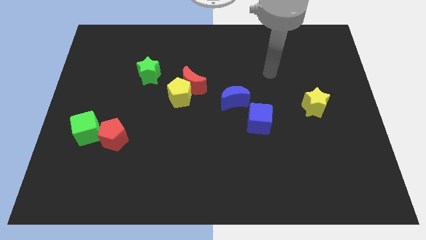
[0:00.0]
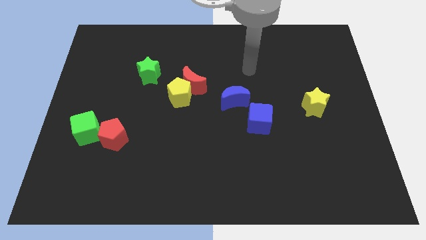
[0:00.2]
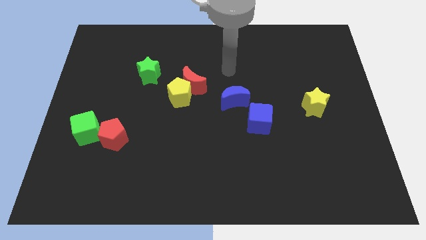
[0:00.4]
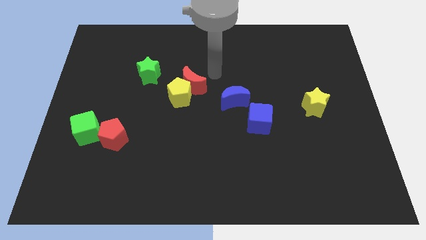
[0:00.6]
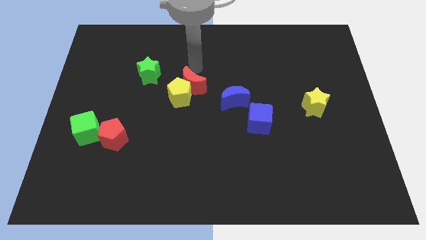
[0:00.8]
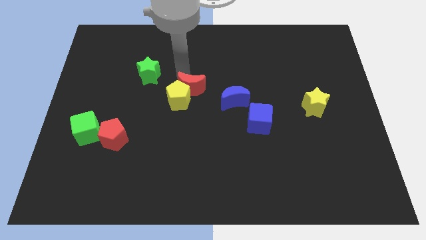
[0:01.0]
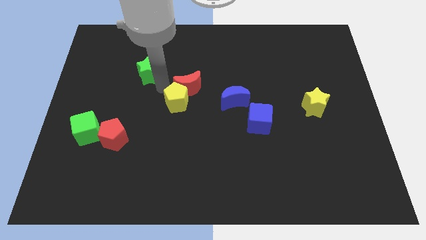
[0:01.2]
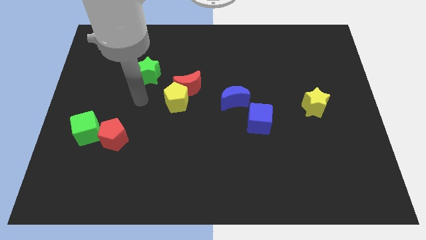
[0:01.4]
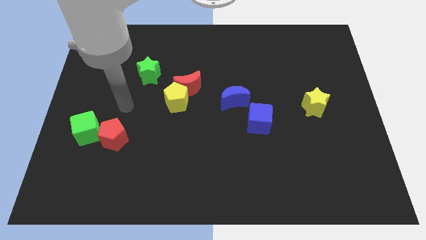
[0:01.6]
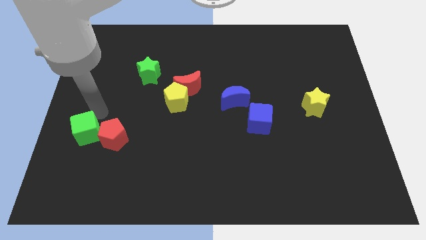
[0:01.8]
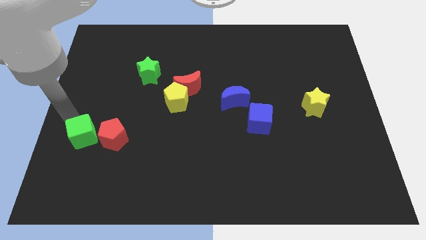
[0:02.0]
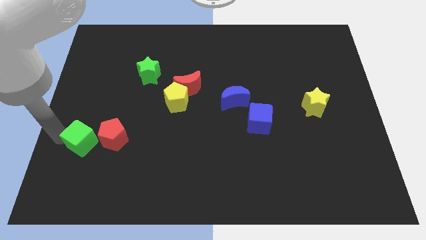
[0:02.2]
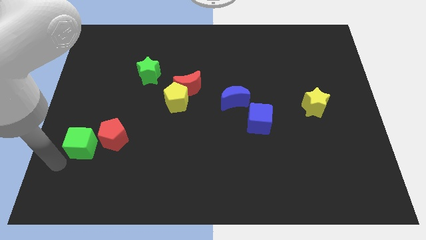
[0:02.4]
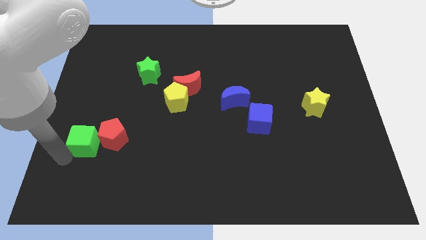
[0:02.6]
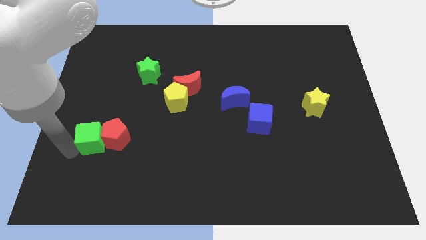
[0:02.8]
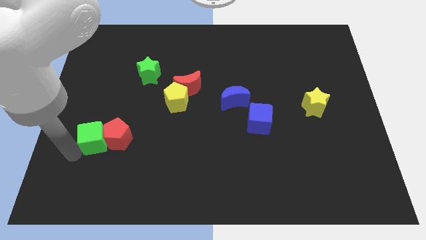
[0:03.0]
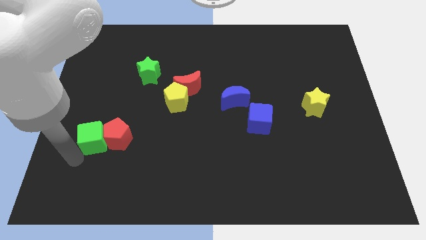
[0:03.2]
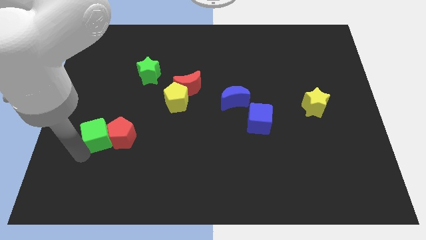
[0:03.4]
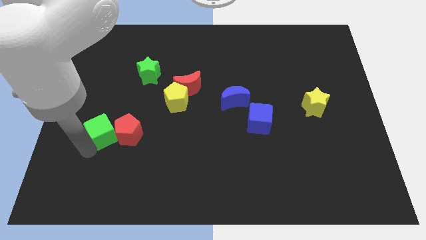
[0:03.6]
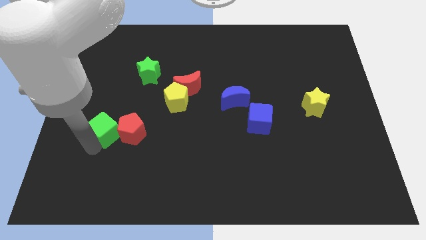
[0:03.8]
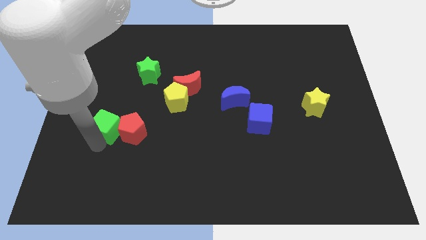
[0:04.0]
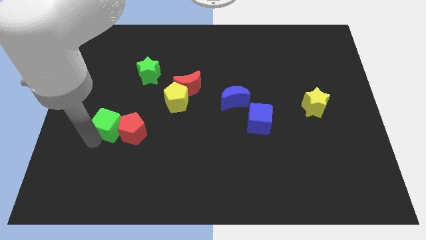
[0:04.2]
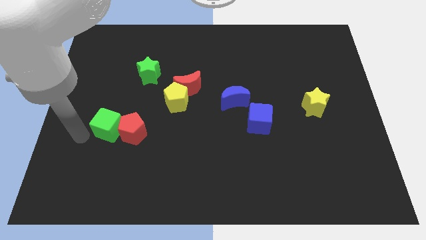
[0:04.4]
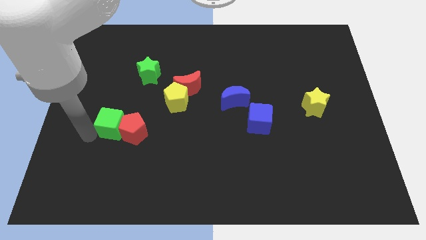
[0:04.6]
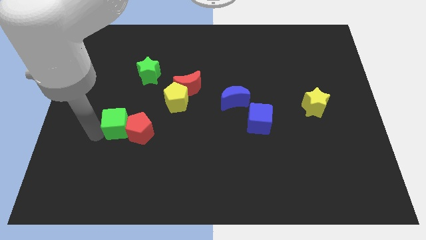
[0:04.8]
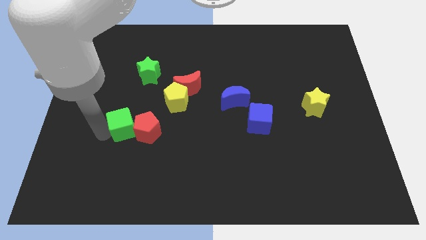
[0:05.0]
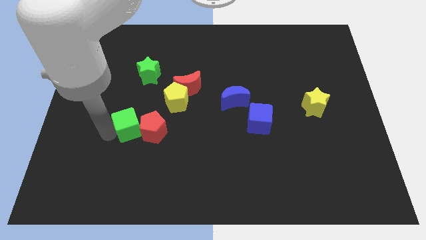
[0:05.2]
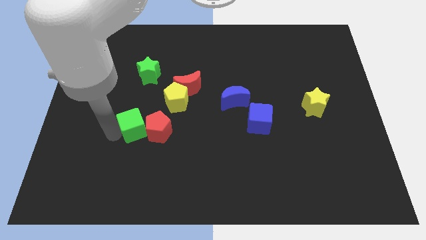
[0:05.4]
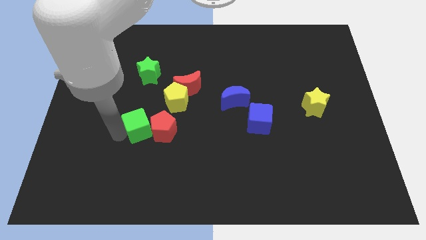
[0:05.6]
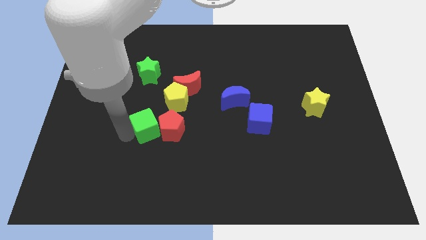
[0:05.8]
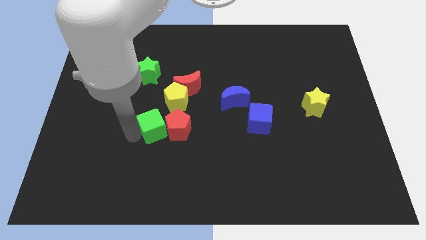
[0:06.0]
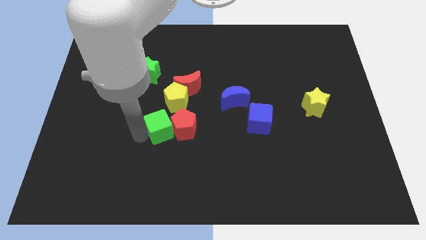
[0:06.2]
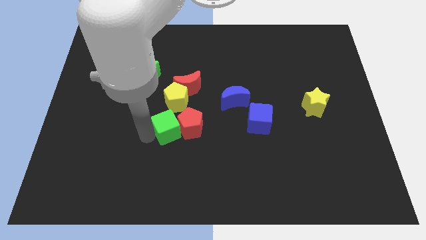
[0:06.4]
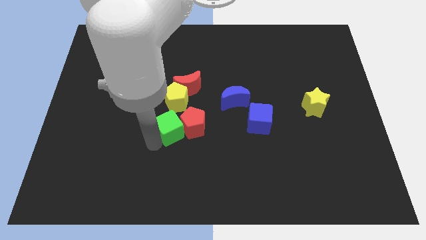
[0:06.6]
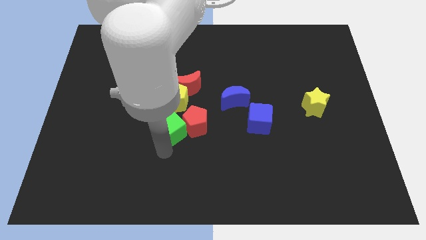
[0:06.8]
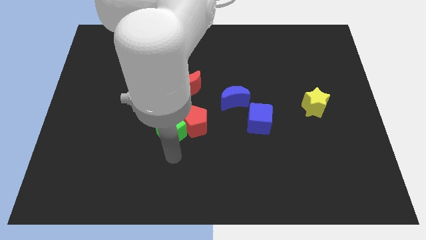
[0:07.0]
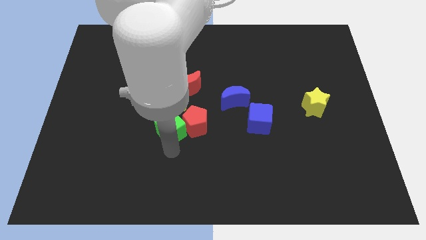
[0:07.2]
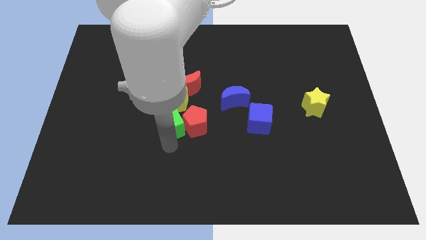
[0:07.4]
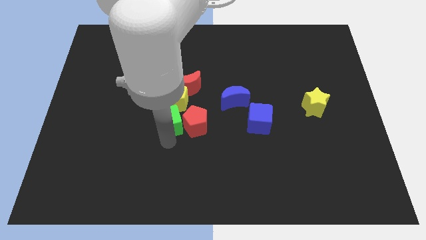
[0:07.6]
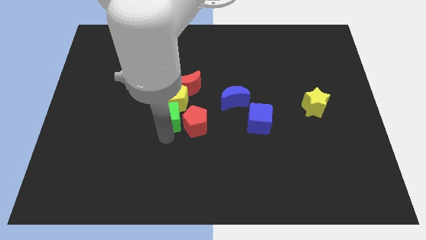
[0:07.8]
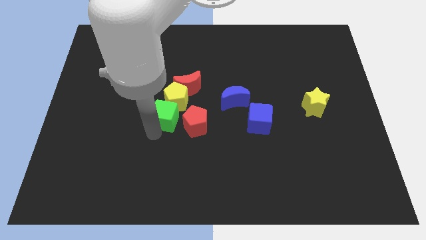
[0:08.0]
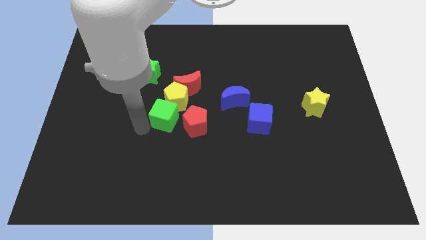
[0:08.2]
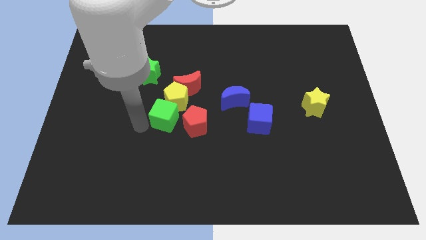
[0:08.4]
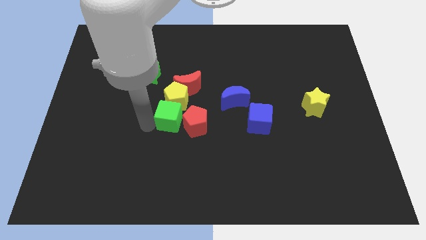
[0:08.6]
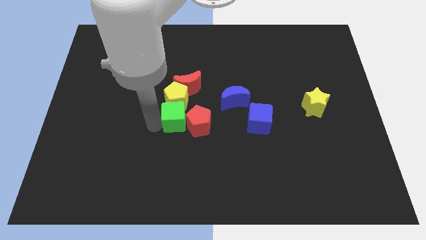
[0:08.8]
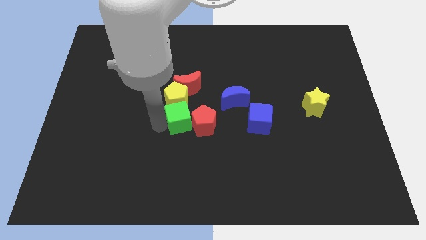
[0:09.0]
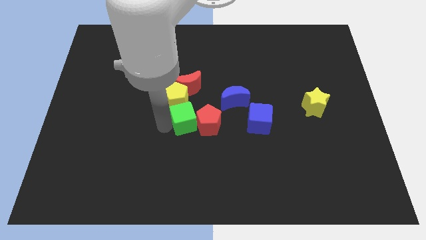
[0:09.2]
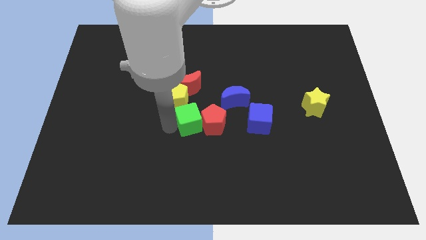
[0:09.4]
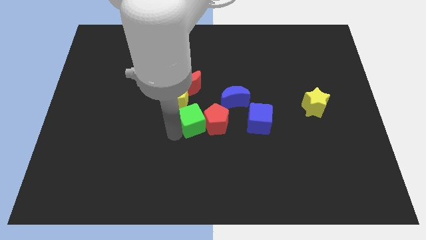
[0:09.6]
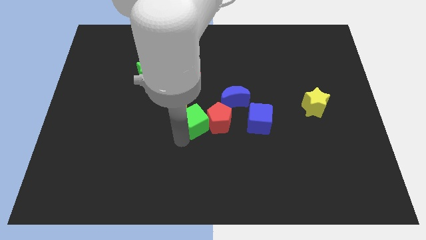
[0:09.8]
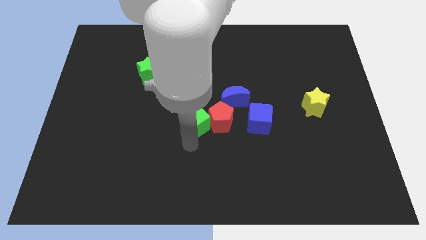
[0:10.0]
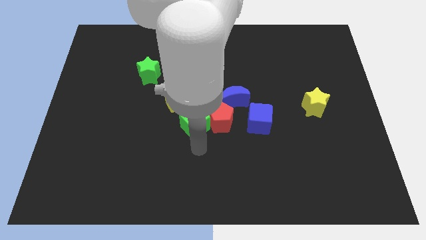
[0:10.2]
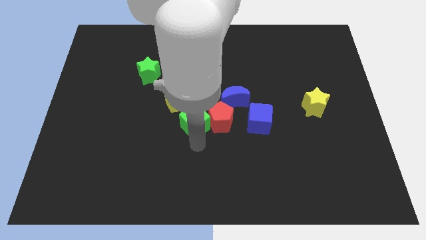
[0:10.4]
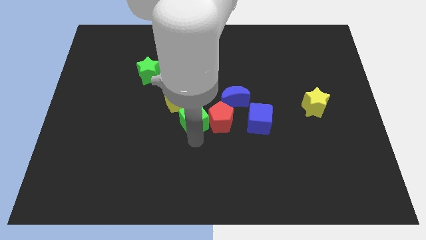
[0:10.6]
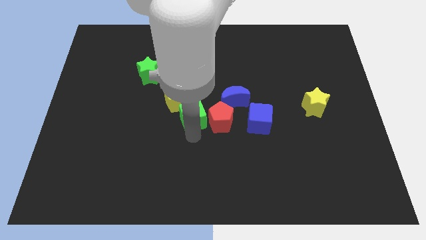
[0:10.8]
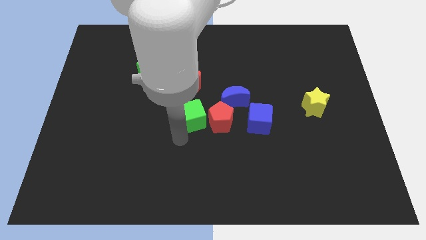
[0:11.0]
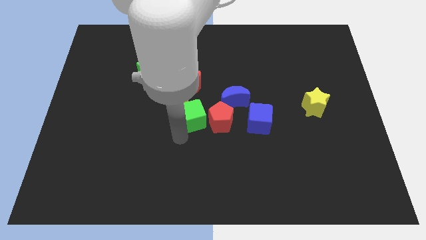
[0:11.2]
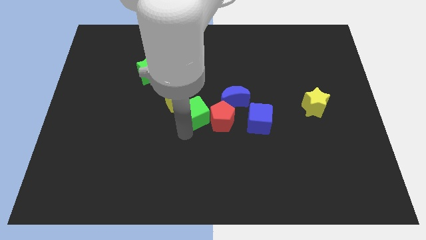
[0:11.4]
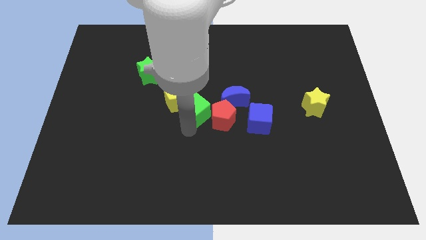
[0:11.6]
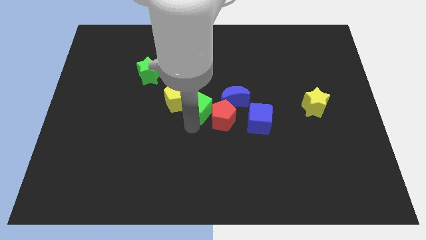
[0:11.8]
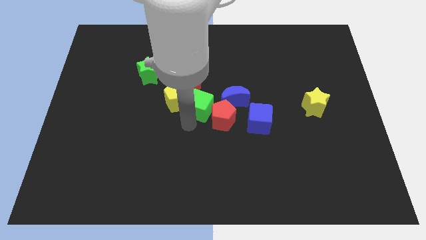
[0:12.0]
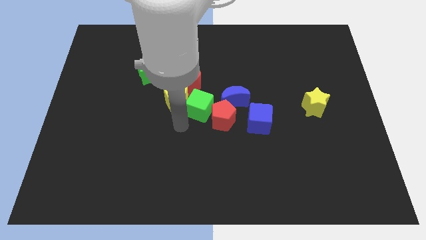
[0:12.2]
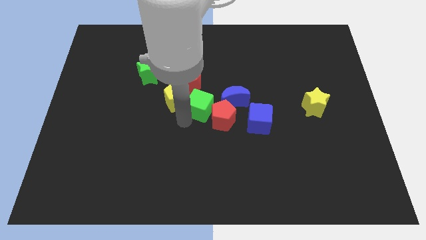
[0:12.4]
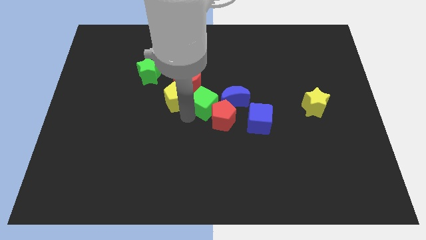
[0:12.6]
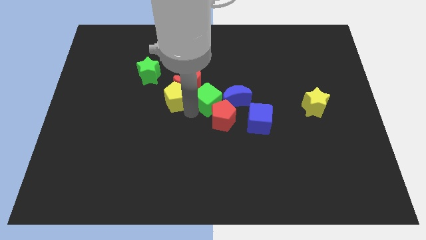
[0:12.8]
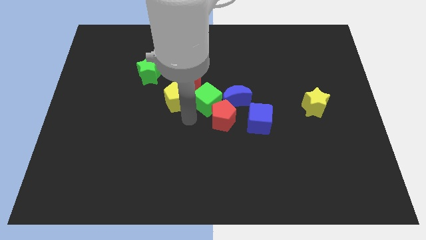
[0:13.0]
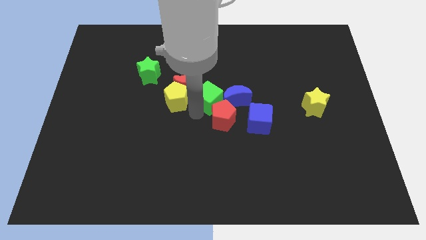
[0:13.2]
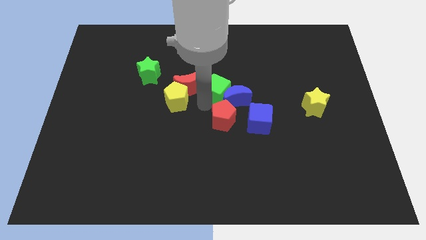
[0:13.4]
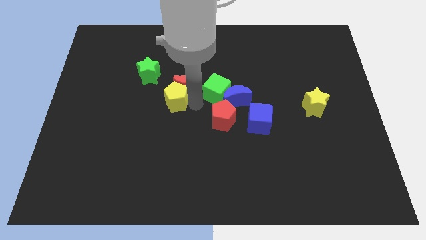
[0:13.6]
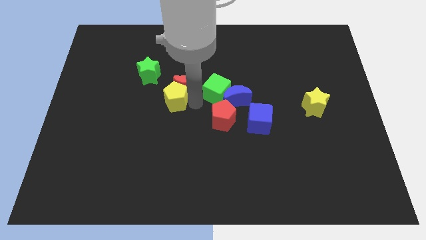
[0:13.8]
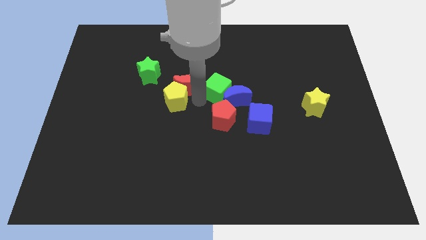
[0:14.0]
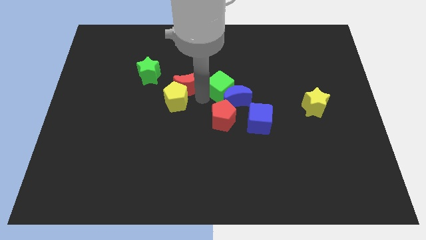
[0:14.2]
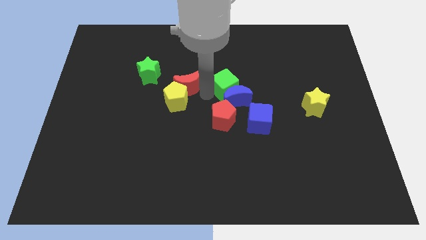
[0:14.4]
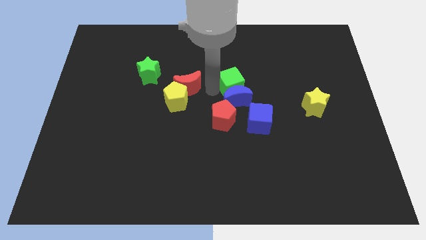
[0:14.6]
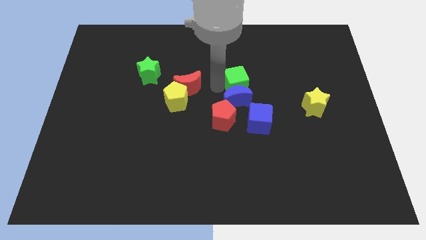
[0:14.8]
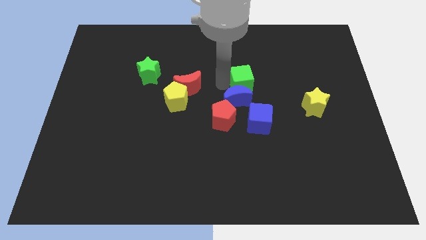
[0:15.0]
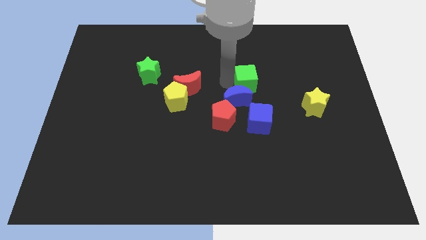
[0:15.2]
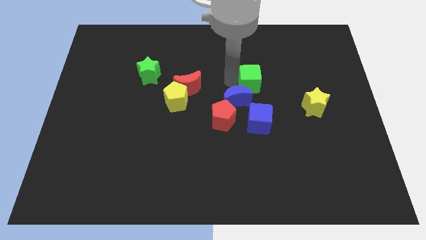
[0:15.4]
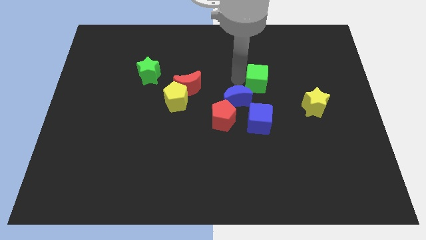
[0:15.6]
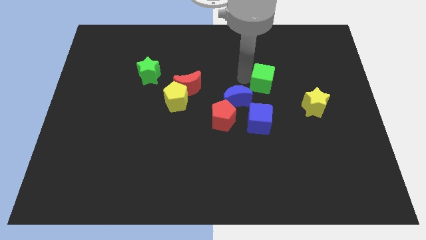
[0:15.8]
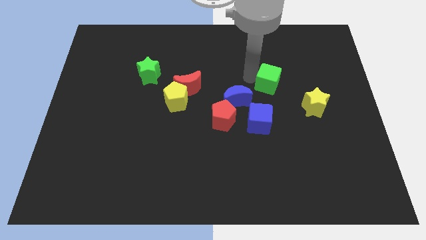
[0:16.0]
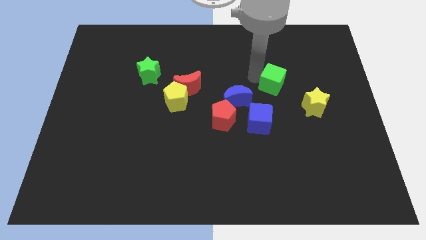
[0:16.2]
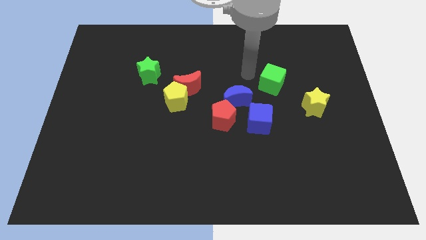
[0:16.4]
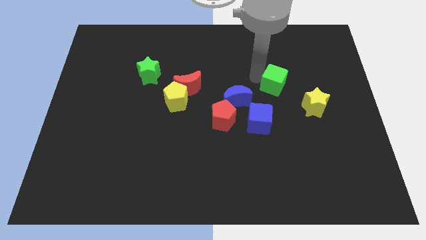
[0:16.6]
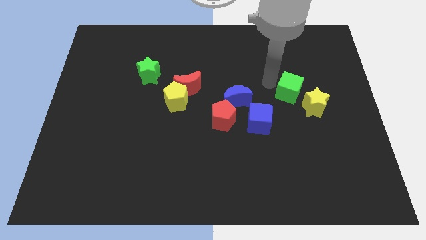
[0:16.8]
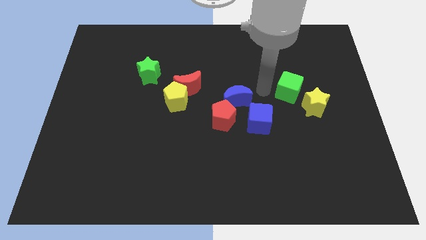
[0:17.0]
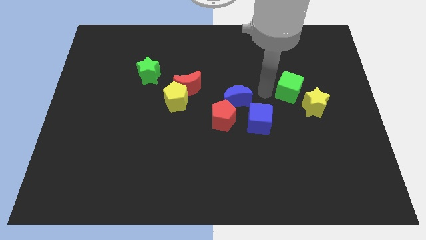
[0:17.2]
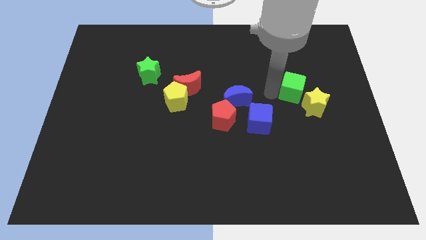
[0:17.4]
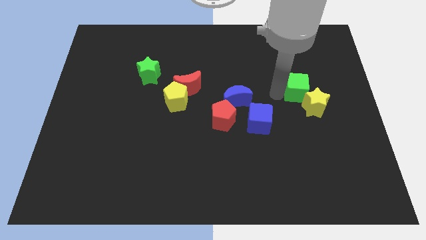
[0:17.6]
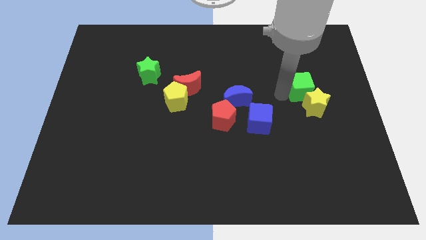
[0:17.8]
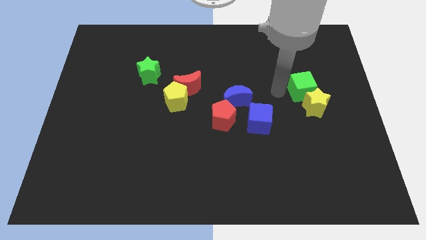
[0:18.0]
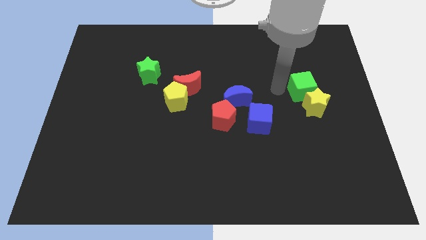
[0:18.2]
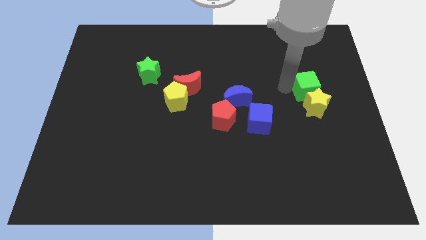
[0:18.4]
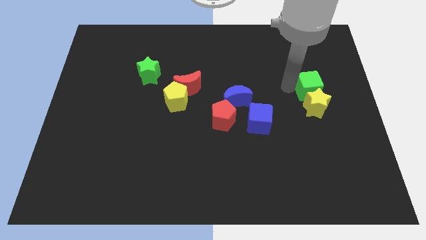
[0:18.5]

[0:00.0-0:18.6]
push the green cube diagonally up and to the right of the yellow star
